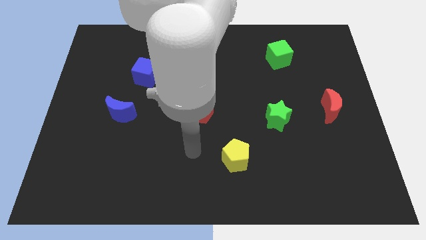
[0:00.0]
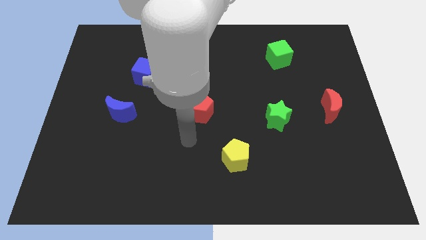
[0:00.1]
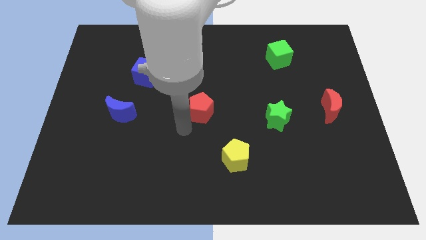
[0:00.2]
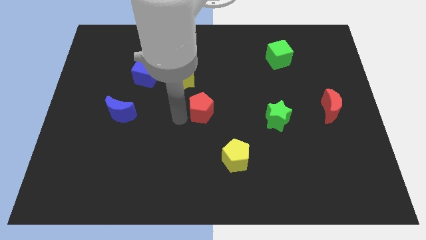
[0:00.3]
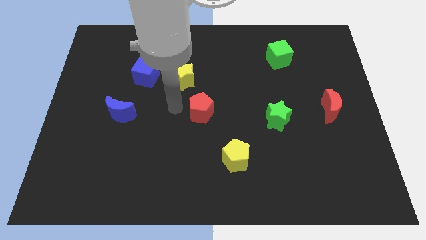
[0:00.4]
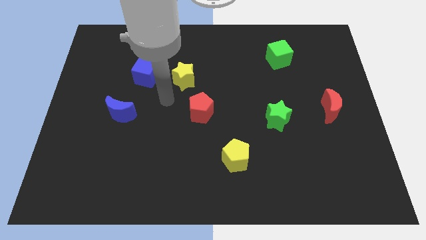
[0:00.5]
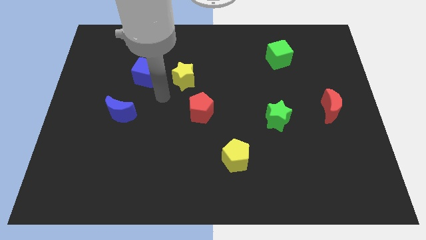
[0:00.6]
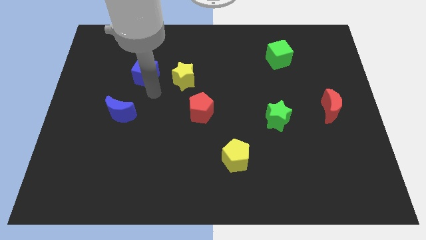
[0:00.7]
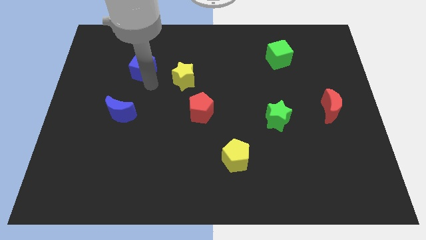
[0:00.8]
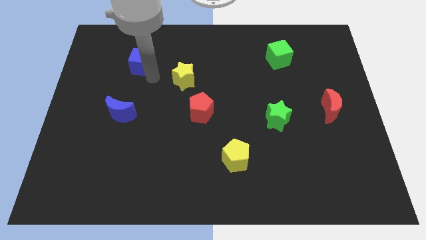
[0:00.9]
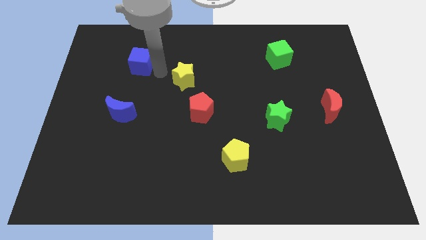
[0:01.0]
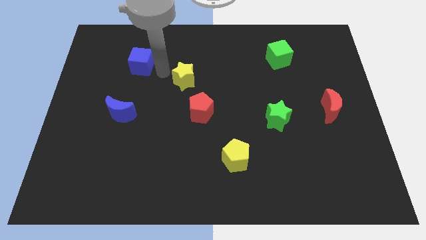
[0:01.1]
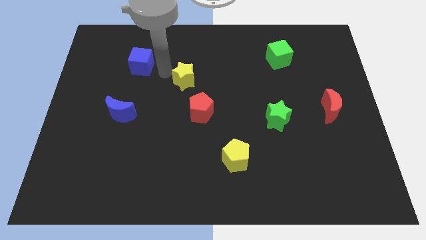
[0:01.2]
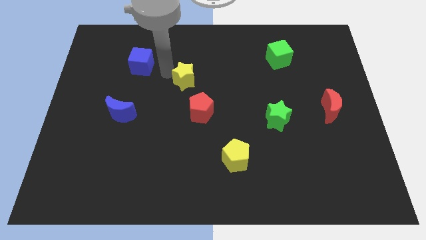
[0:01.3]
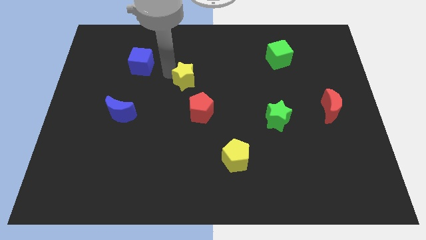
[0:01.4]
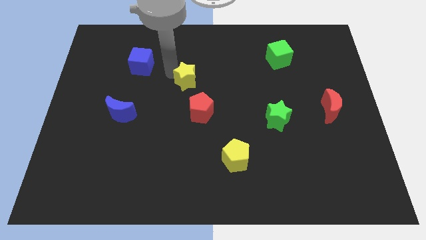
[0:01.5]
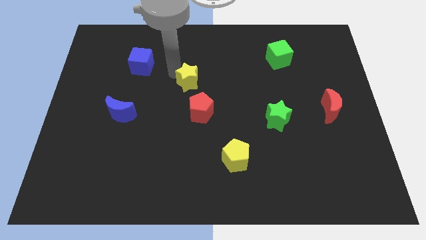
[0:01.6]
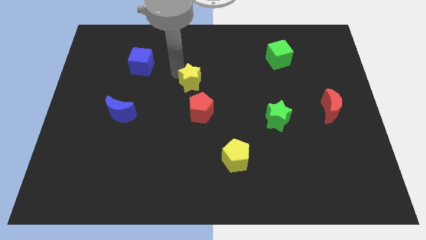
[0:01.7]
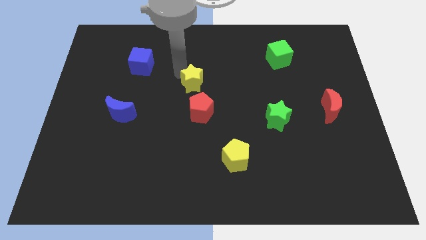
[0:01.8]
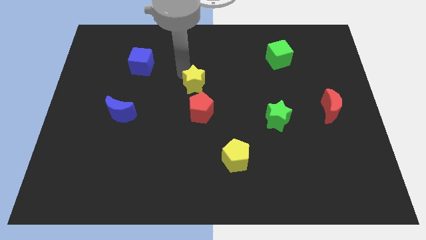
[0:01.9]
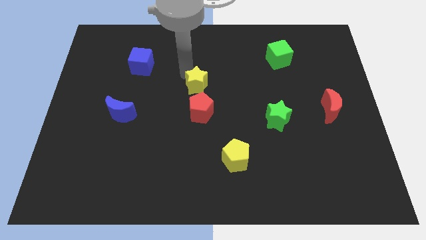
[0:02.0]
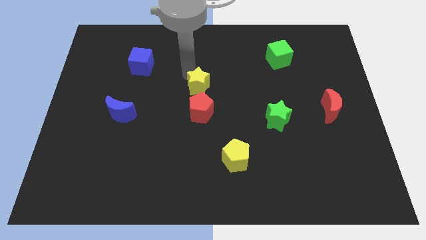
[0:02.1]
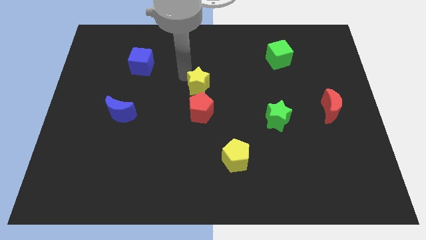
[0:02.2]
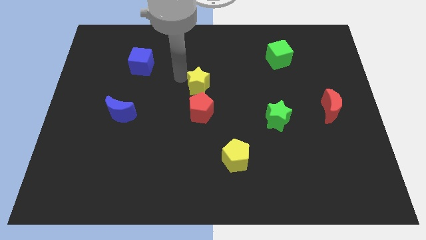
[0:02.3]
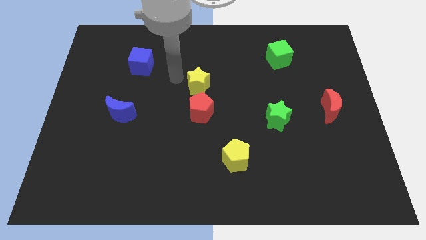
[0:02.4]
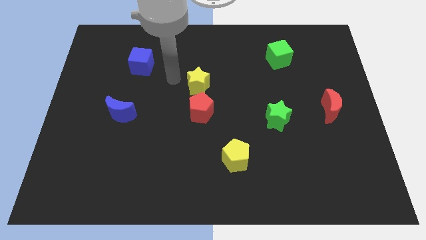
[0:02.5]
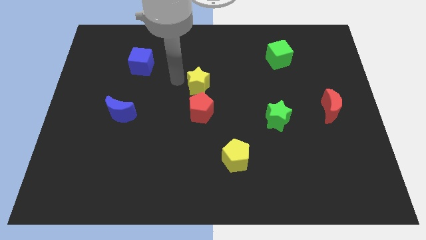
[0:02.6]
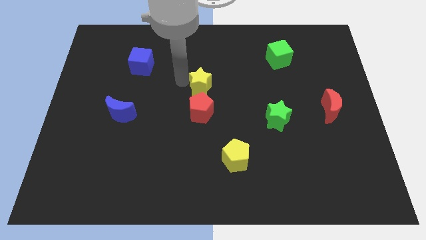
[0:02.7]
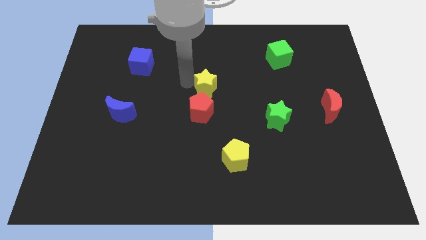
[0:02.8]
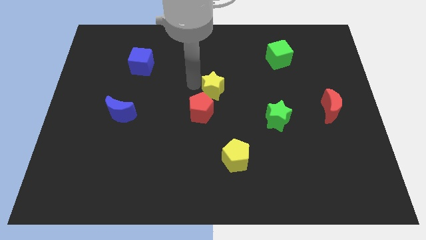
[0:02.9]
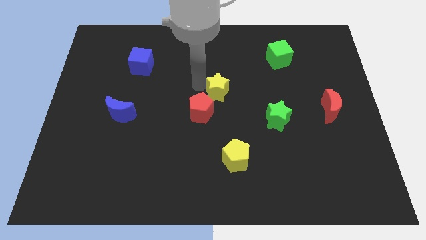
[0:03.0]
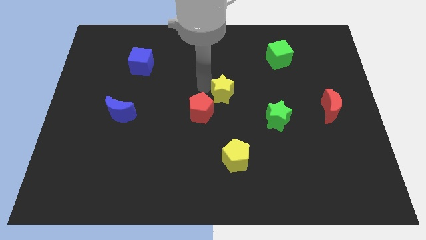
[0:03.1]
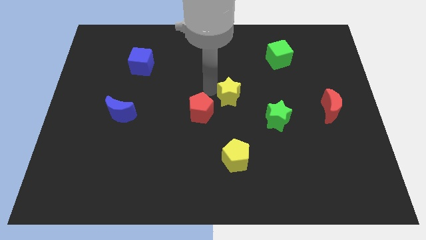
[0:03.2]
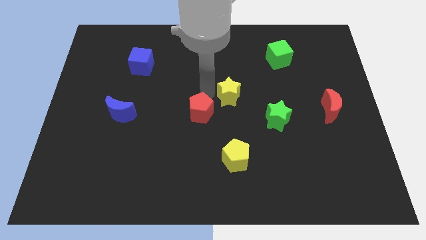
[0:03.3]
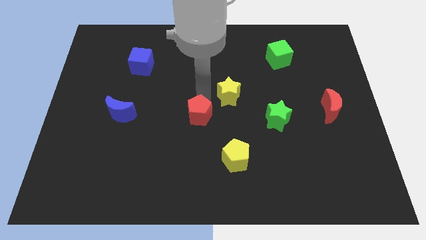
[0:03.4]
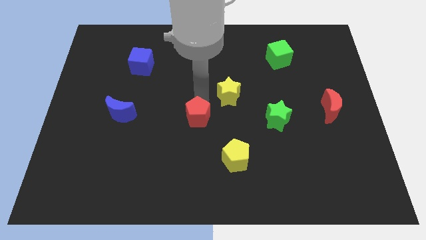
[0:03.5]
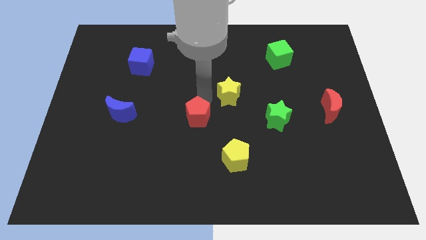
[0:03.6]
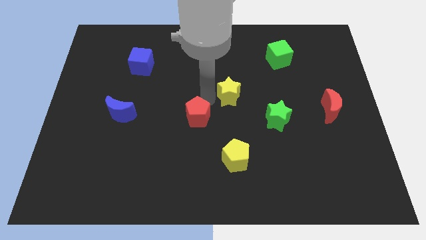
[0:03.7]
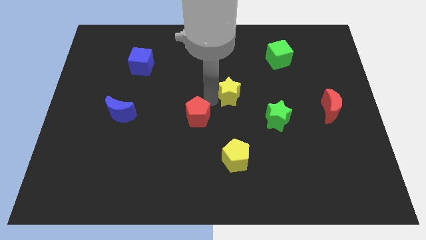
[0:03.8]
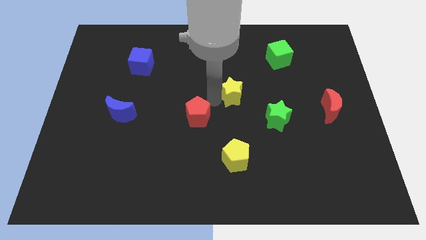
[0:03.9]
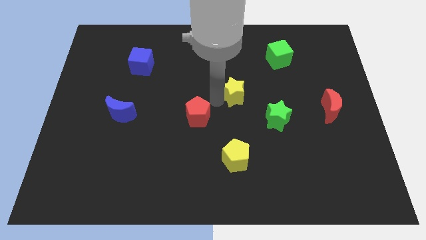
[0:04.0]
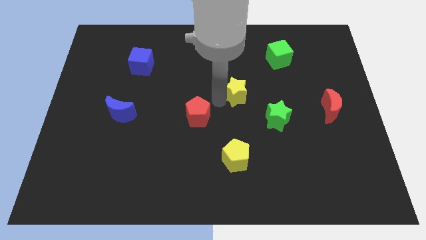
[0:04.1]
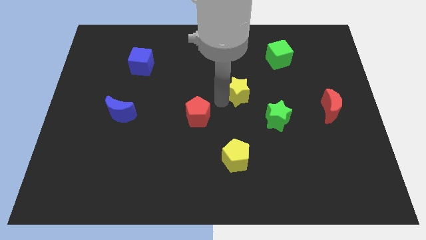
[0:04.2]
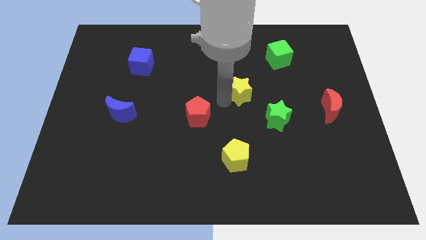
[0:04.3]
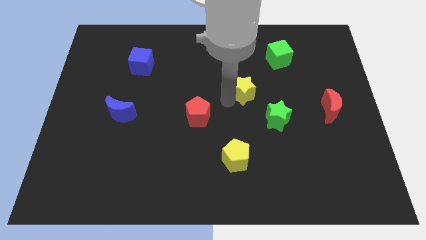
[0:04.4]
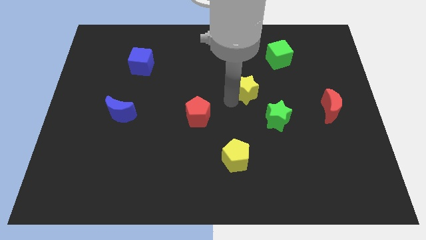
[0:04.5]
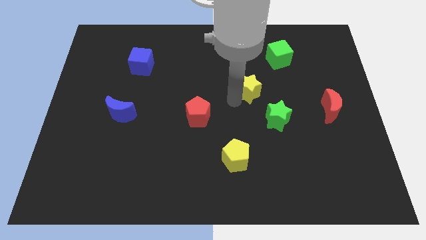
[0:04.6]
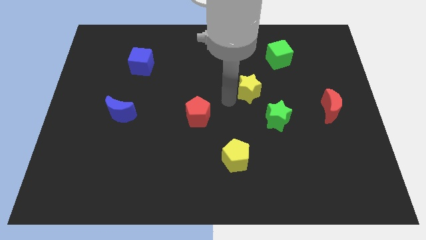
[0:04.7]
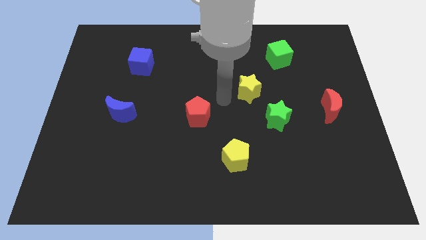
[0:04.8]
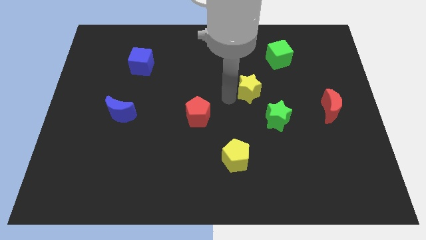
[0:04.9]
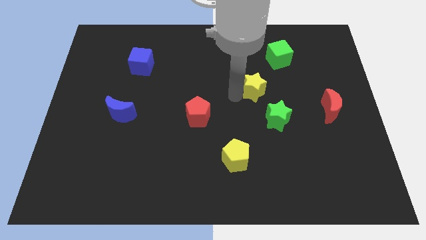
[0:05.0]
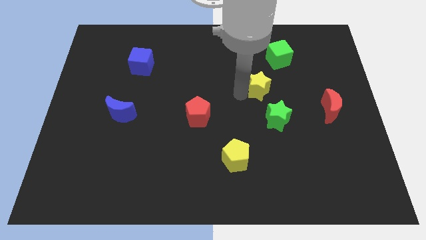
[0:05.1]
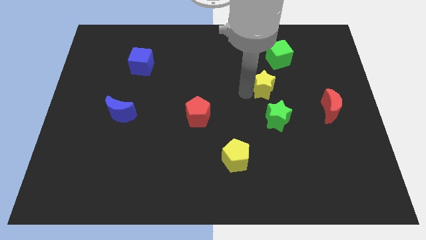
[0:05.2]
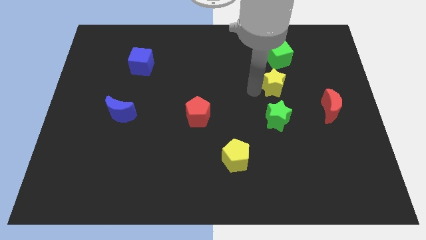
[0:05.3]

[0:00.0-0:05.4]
slide the yellow star right

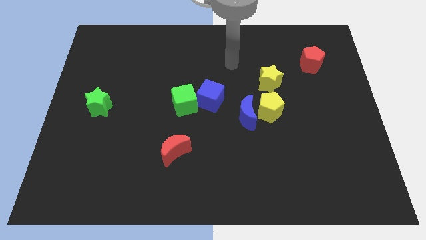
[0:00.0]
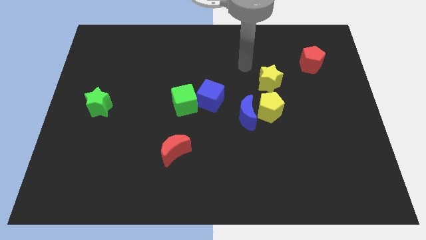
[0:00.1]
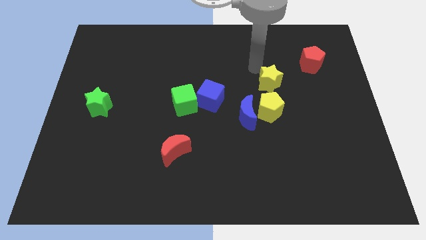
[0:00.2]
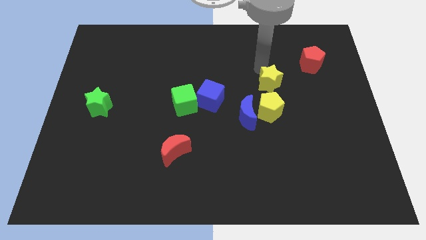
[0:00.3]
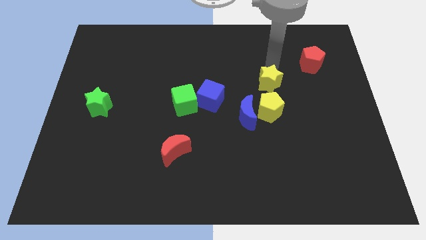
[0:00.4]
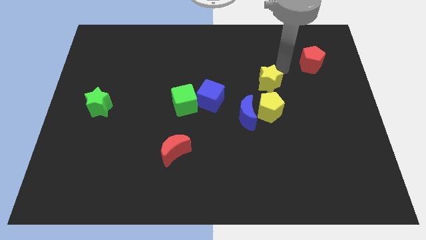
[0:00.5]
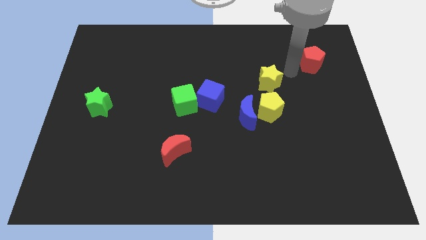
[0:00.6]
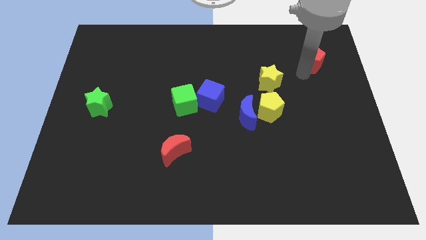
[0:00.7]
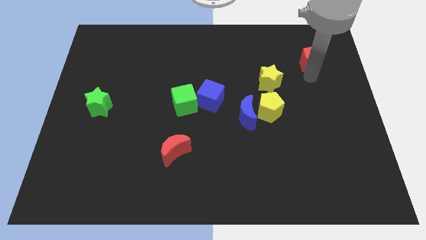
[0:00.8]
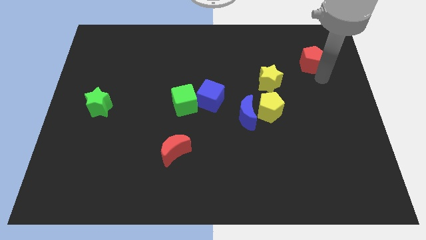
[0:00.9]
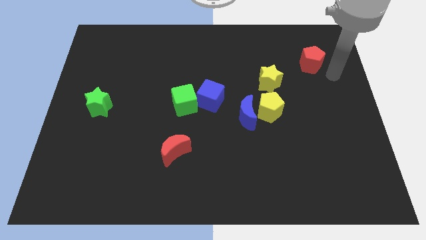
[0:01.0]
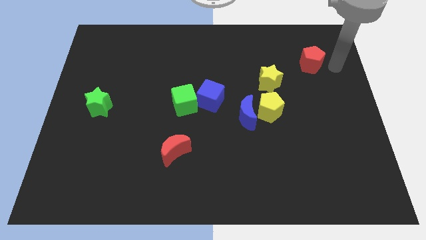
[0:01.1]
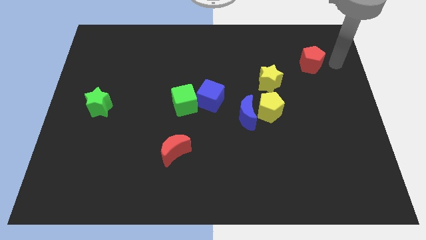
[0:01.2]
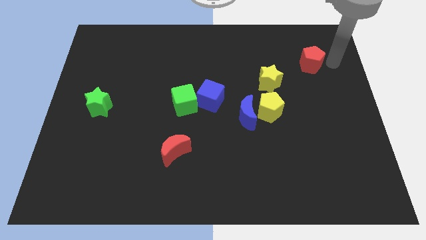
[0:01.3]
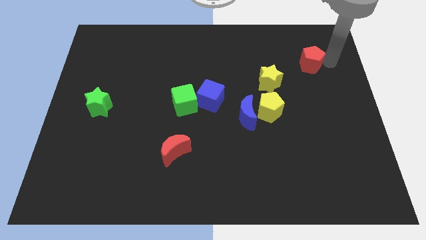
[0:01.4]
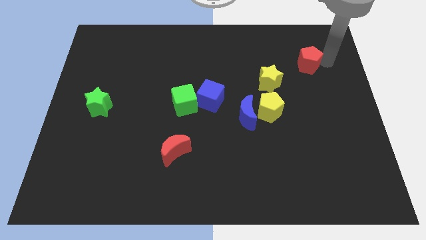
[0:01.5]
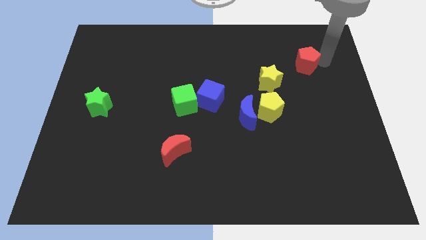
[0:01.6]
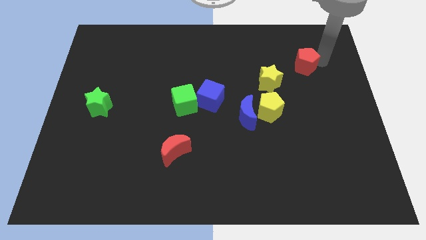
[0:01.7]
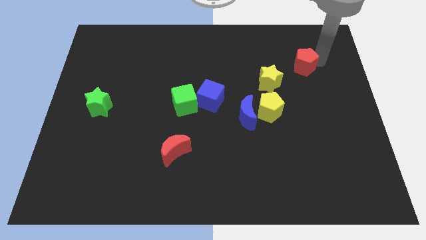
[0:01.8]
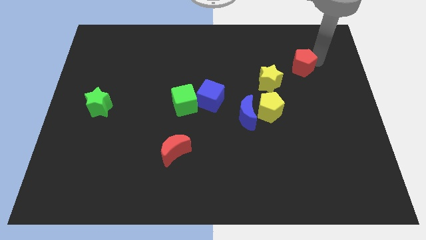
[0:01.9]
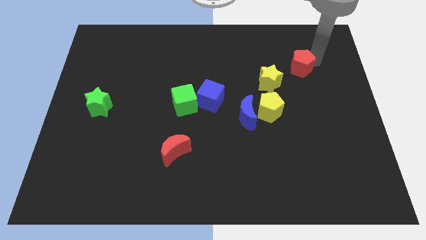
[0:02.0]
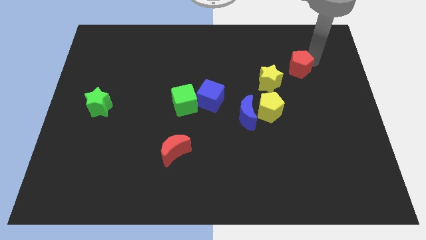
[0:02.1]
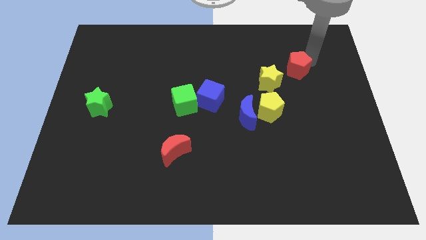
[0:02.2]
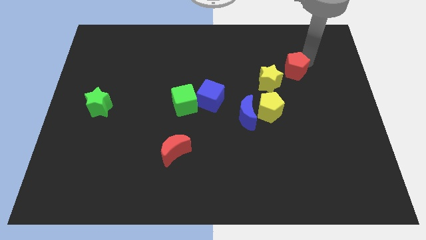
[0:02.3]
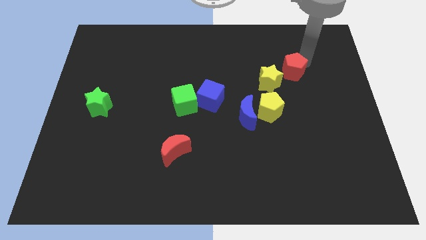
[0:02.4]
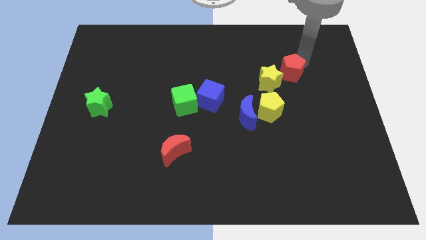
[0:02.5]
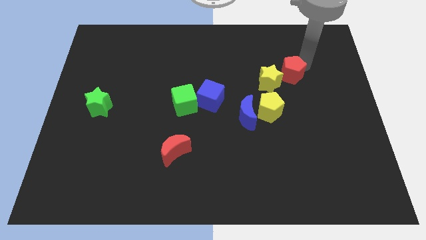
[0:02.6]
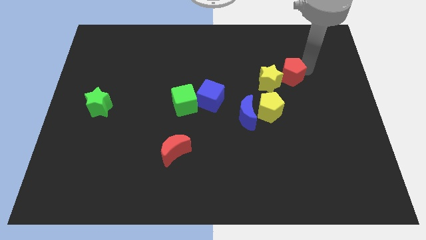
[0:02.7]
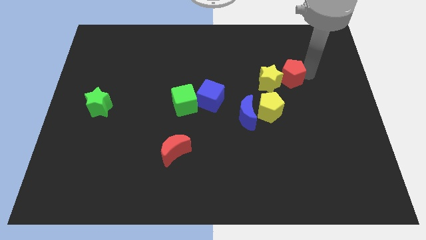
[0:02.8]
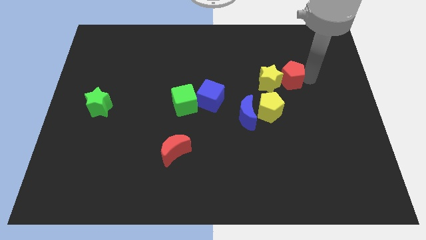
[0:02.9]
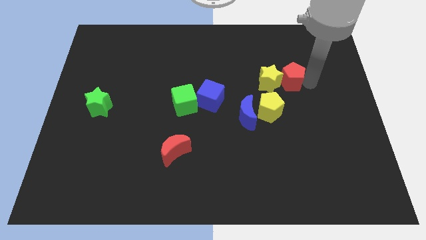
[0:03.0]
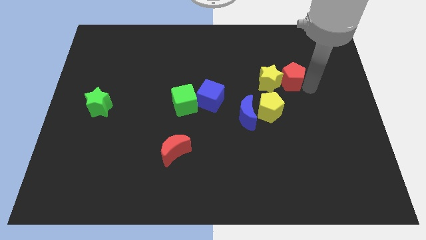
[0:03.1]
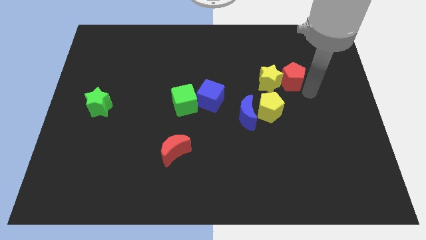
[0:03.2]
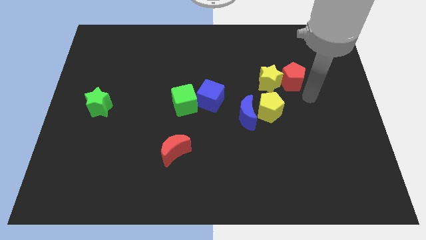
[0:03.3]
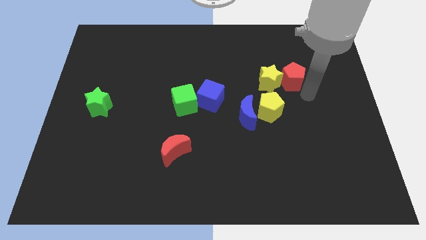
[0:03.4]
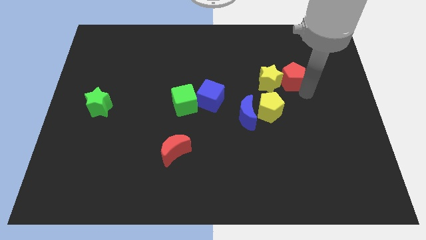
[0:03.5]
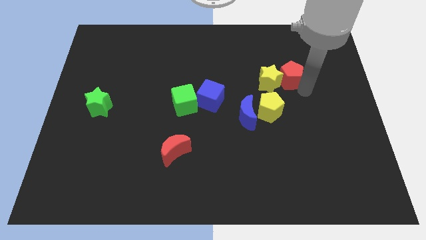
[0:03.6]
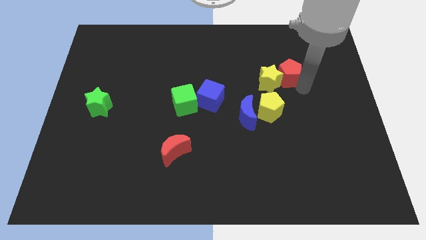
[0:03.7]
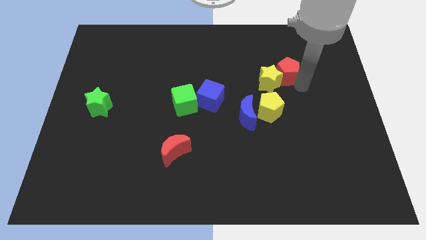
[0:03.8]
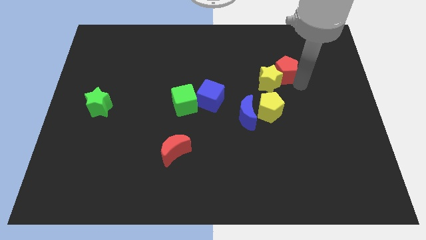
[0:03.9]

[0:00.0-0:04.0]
move the red pentagon a little bit left
